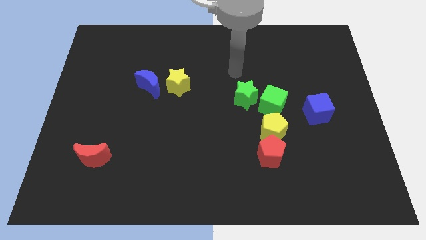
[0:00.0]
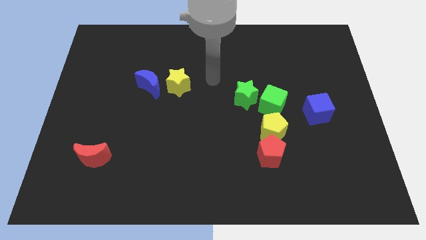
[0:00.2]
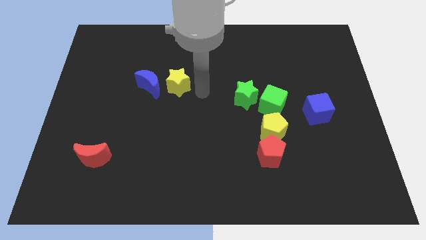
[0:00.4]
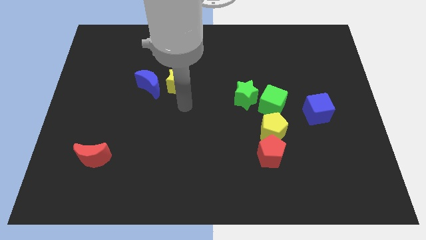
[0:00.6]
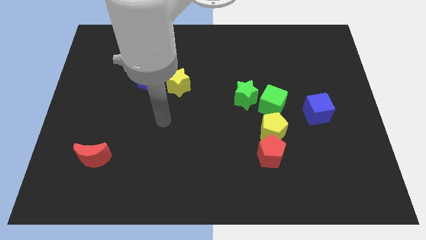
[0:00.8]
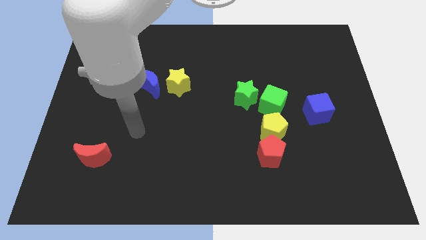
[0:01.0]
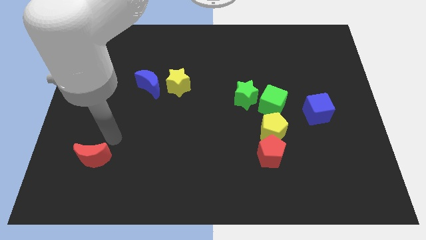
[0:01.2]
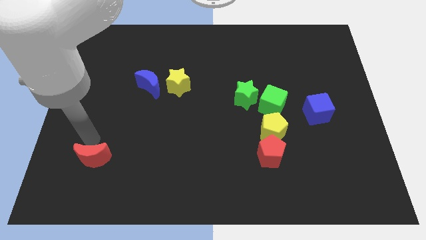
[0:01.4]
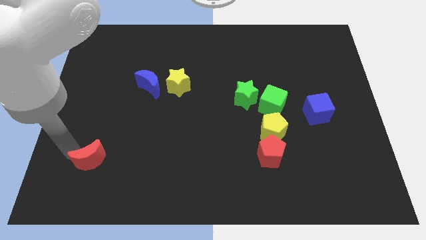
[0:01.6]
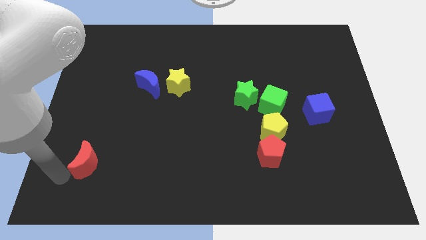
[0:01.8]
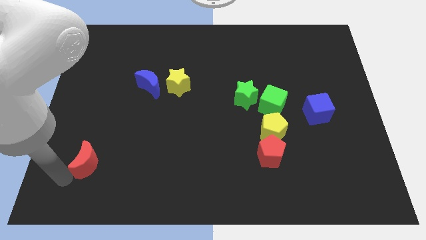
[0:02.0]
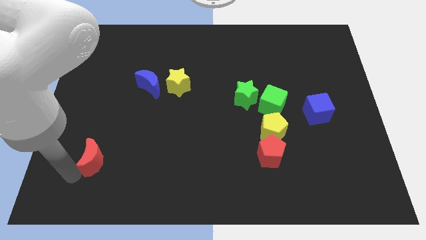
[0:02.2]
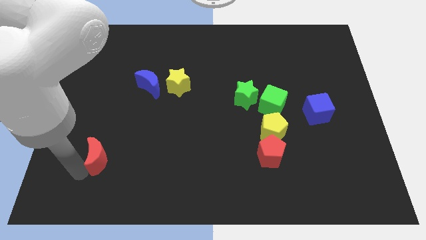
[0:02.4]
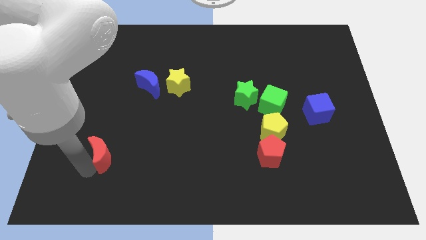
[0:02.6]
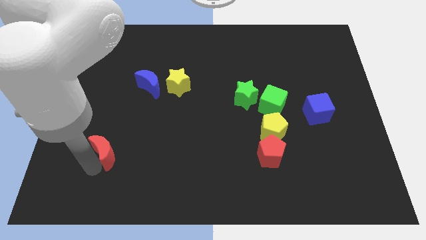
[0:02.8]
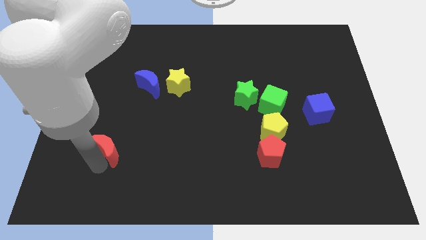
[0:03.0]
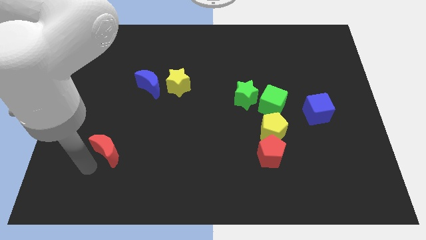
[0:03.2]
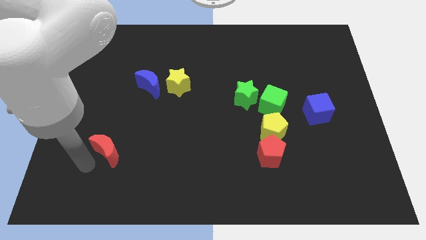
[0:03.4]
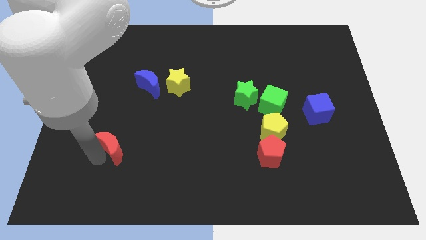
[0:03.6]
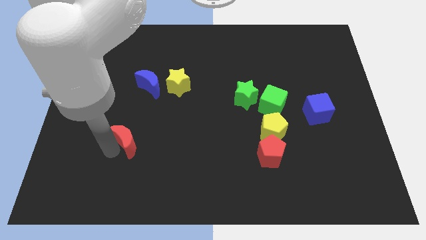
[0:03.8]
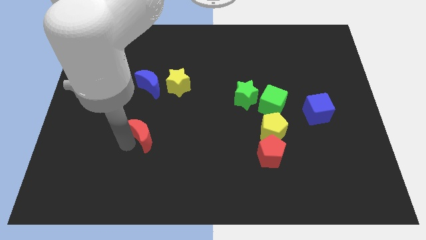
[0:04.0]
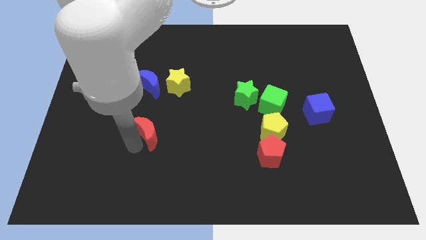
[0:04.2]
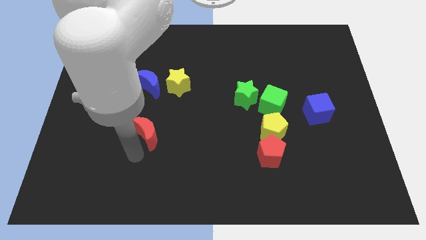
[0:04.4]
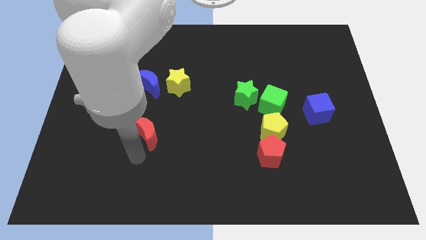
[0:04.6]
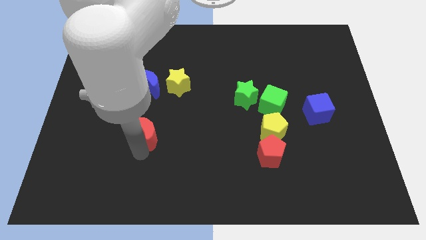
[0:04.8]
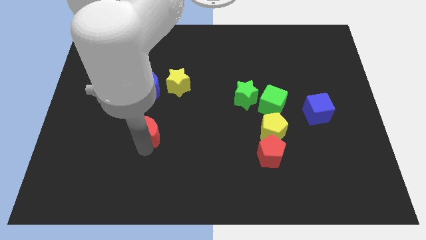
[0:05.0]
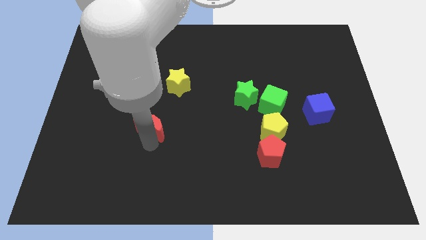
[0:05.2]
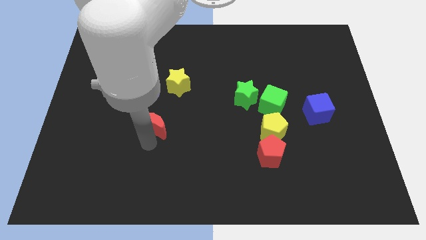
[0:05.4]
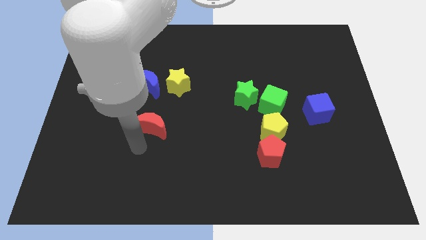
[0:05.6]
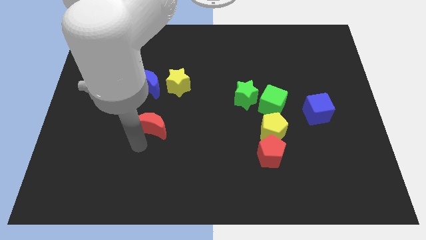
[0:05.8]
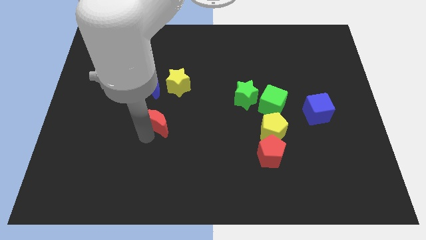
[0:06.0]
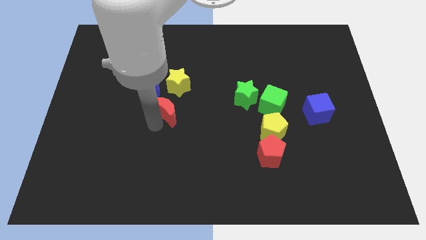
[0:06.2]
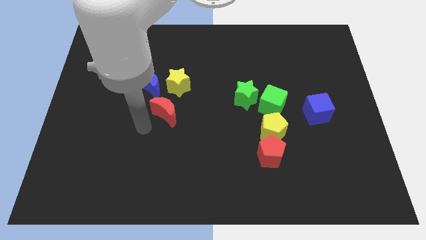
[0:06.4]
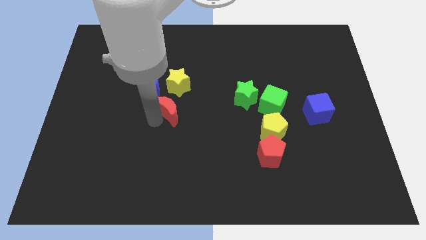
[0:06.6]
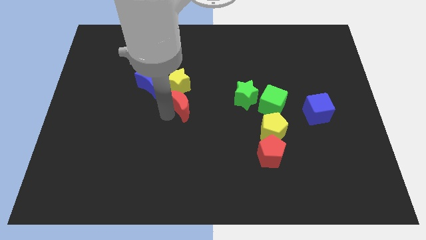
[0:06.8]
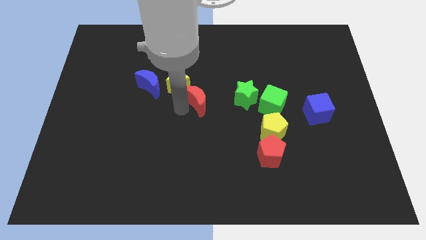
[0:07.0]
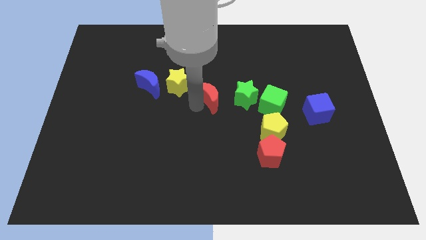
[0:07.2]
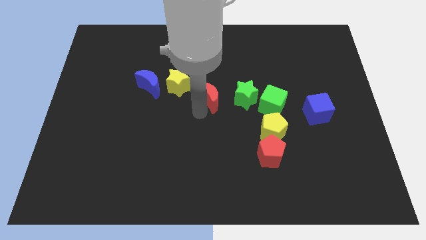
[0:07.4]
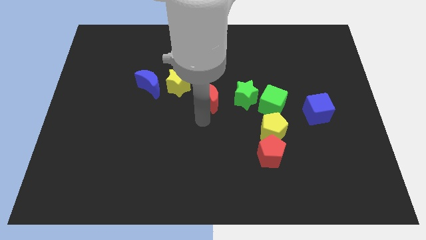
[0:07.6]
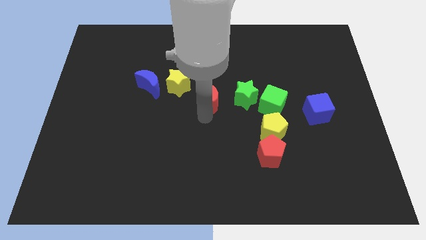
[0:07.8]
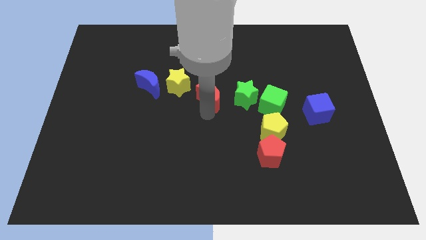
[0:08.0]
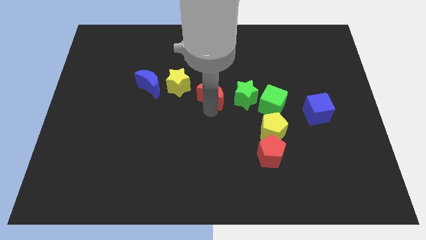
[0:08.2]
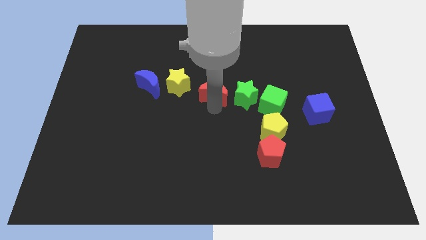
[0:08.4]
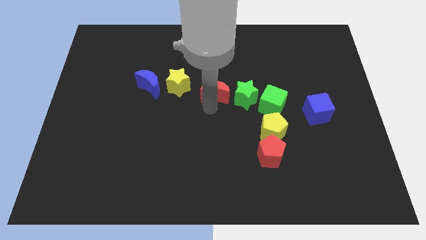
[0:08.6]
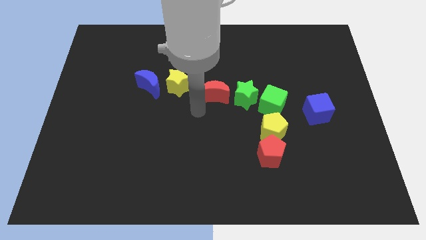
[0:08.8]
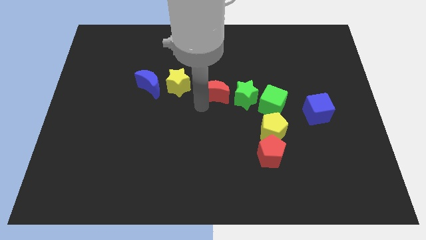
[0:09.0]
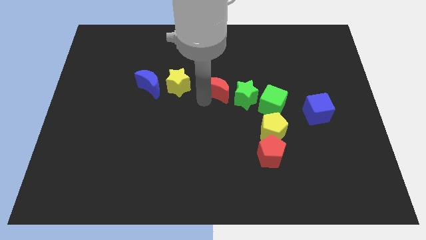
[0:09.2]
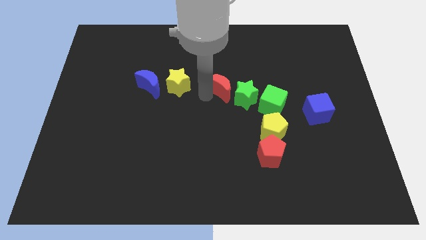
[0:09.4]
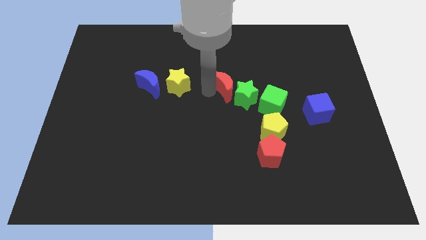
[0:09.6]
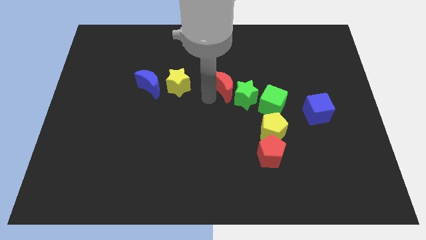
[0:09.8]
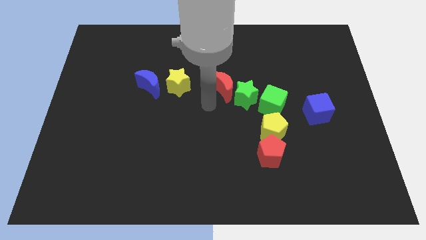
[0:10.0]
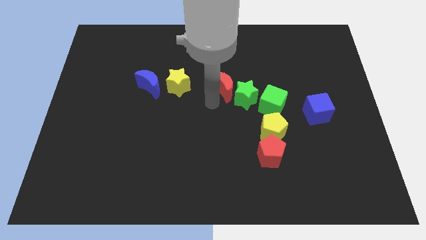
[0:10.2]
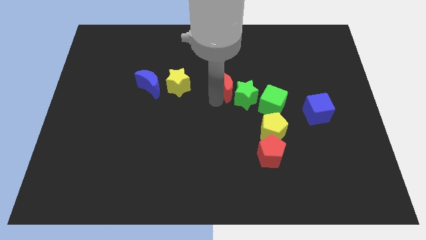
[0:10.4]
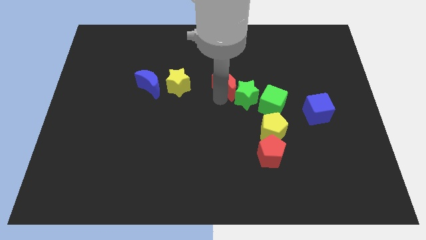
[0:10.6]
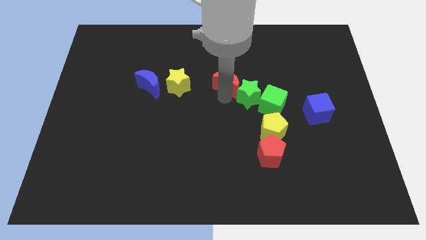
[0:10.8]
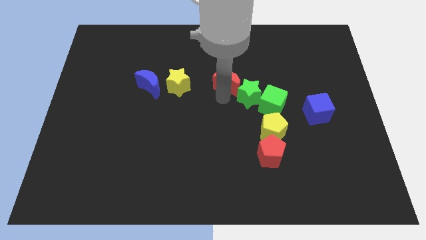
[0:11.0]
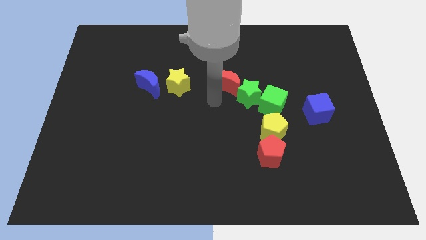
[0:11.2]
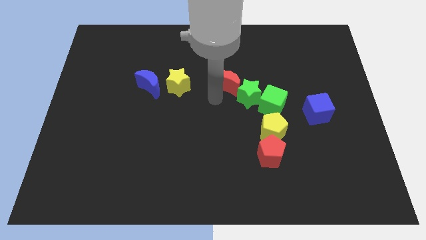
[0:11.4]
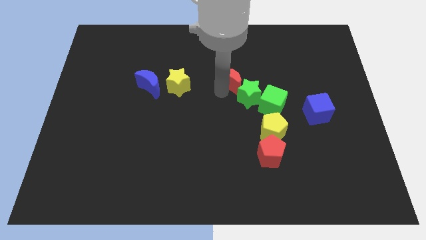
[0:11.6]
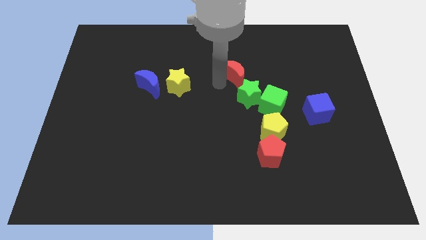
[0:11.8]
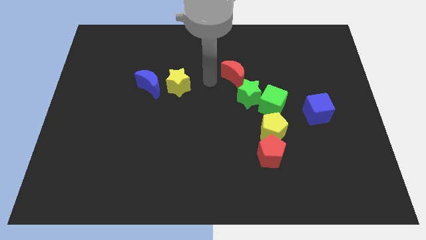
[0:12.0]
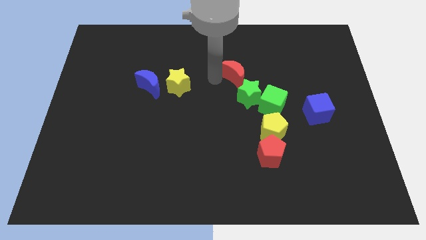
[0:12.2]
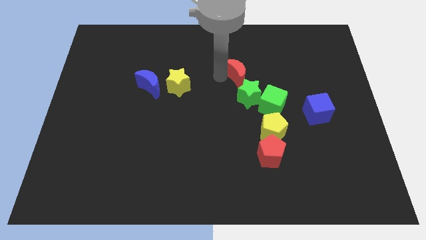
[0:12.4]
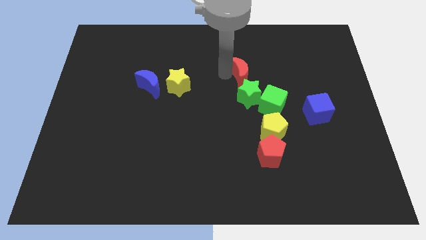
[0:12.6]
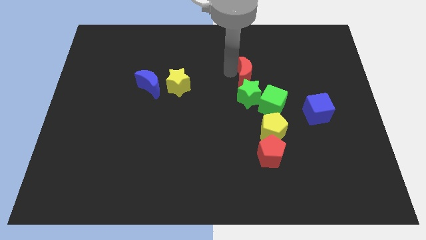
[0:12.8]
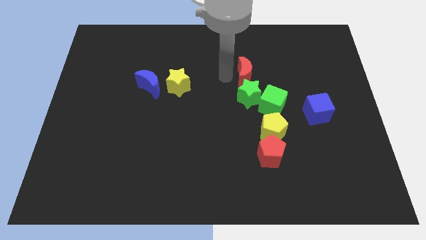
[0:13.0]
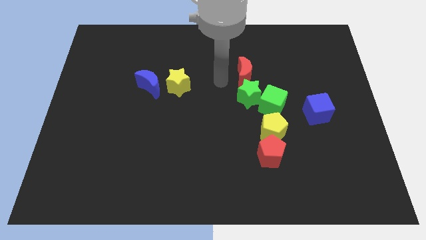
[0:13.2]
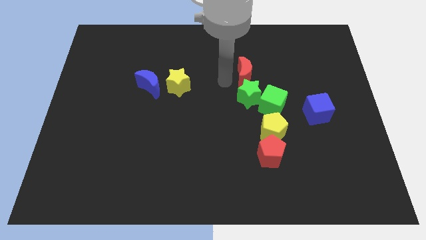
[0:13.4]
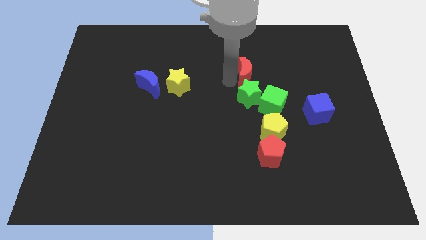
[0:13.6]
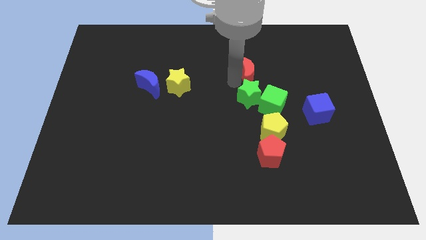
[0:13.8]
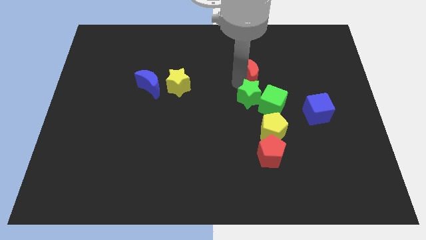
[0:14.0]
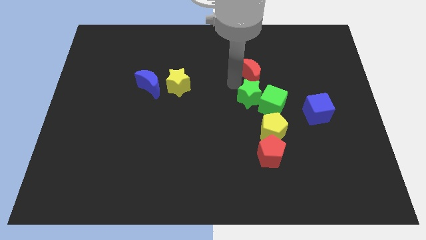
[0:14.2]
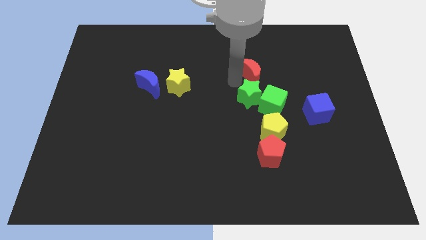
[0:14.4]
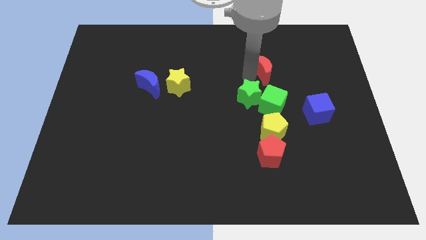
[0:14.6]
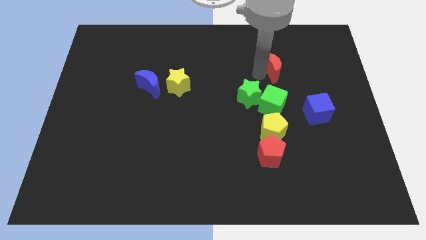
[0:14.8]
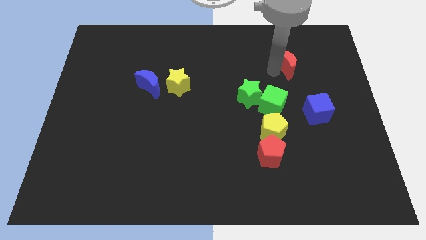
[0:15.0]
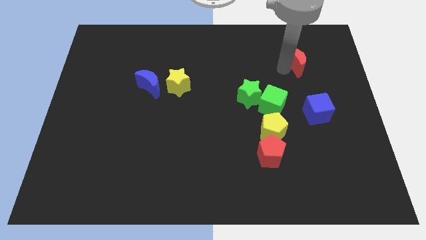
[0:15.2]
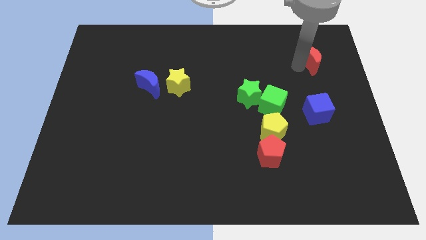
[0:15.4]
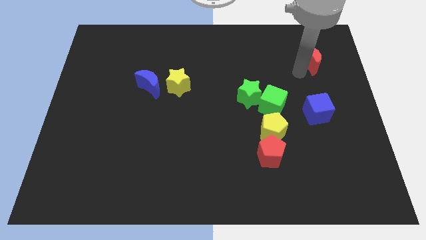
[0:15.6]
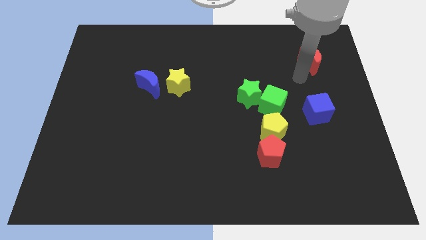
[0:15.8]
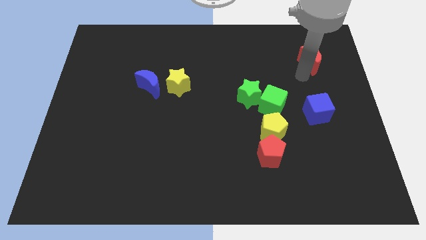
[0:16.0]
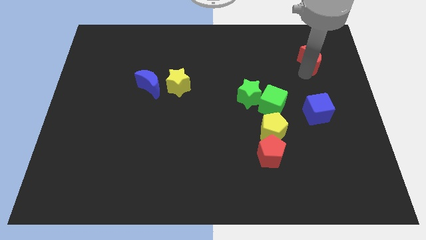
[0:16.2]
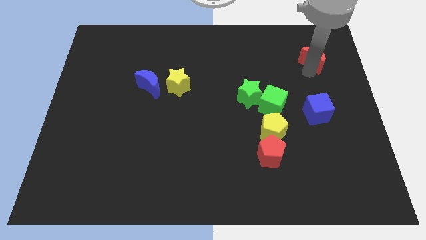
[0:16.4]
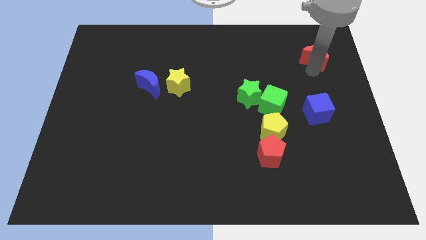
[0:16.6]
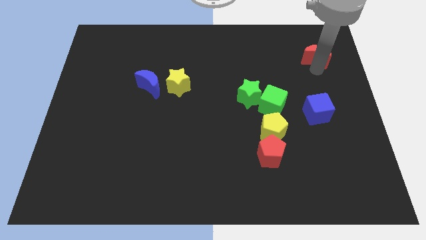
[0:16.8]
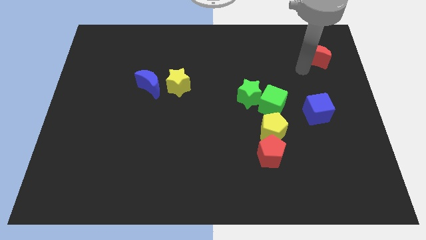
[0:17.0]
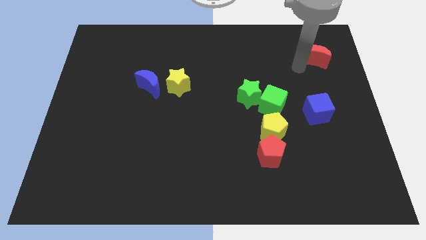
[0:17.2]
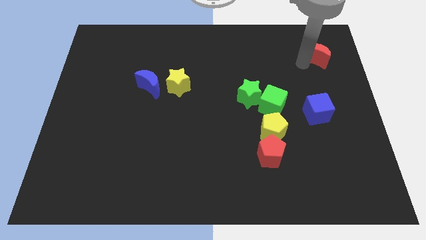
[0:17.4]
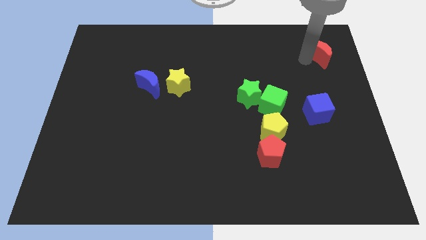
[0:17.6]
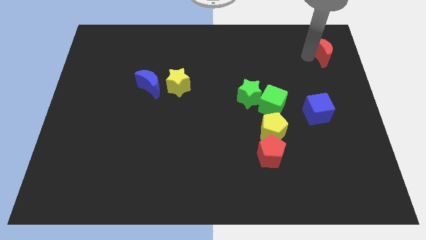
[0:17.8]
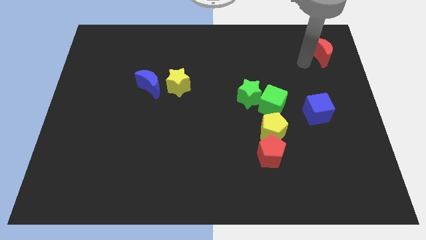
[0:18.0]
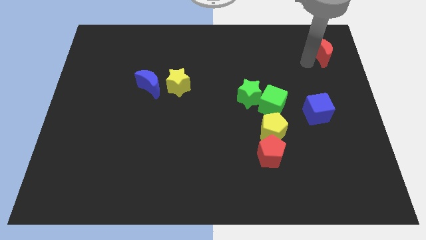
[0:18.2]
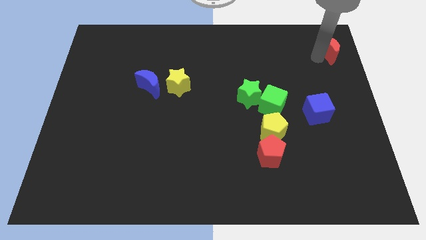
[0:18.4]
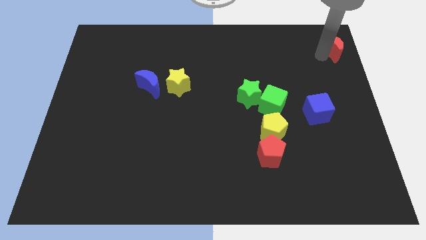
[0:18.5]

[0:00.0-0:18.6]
move the red moon to the top right corner
